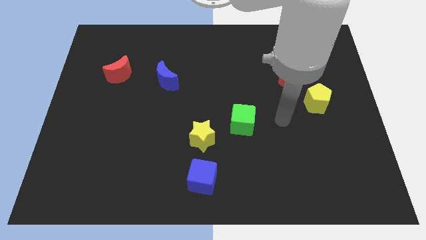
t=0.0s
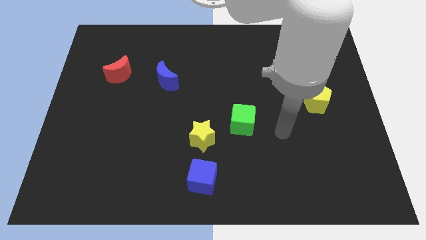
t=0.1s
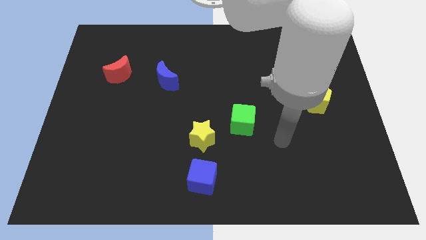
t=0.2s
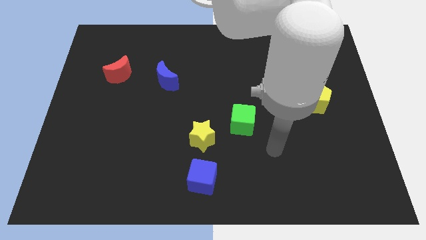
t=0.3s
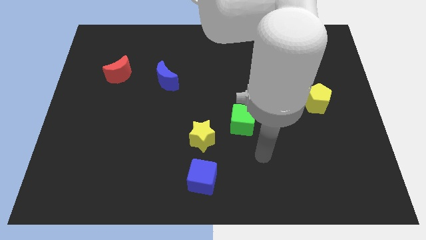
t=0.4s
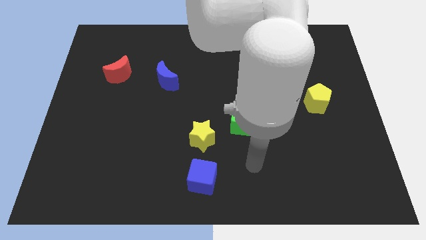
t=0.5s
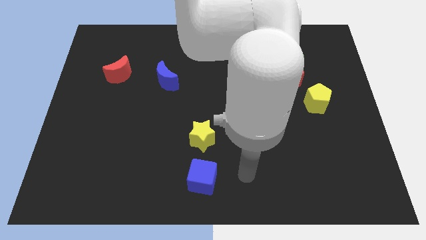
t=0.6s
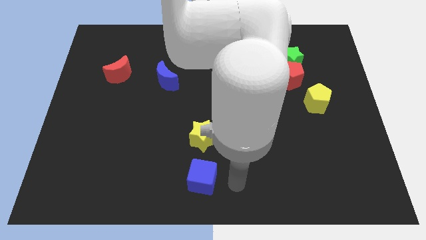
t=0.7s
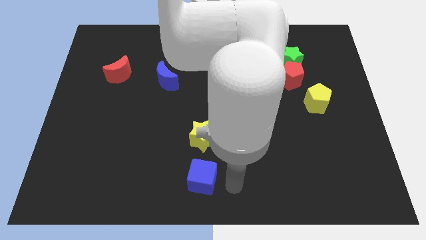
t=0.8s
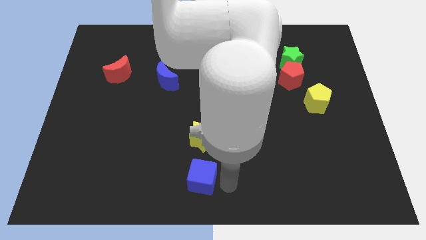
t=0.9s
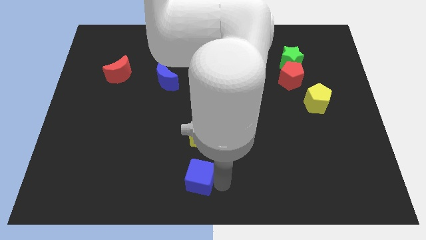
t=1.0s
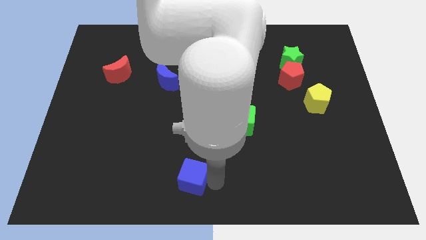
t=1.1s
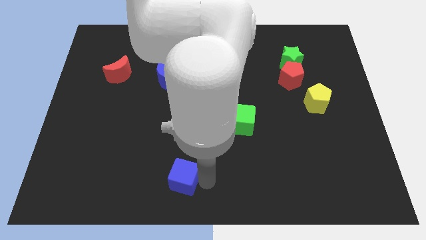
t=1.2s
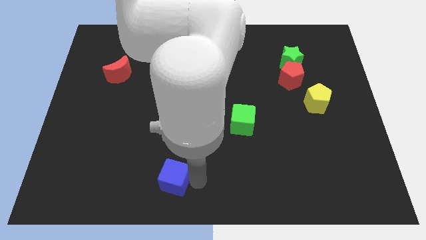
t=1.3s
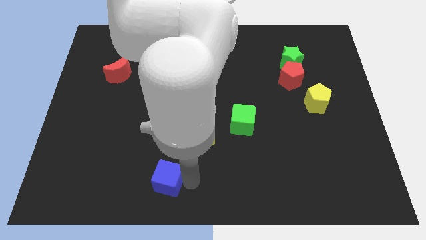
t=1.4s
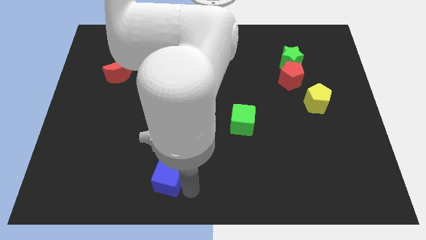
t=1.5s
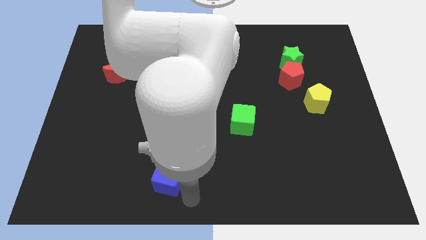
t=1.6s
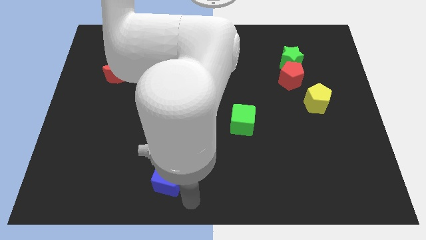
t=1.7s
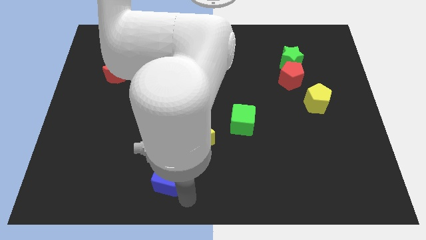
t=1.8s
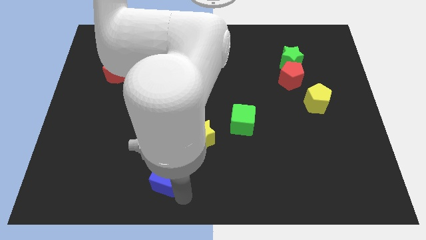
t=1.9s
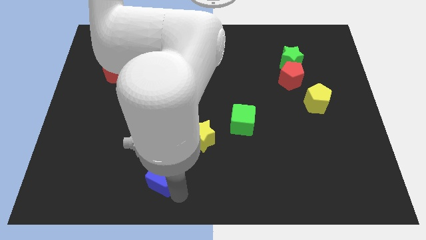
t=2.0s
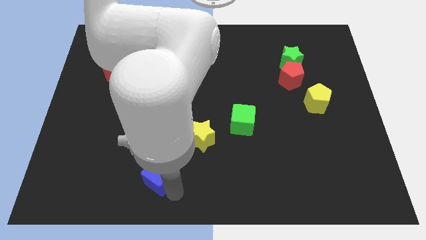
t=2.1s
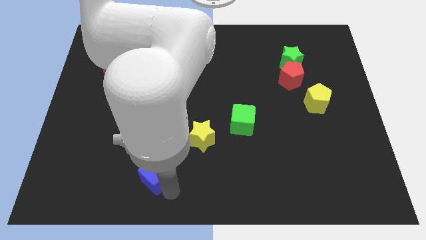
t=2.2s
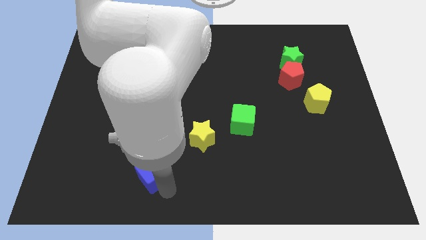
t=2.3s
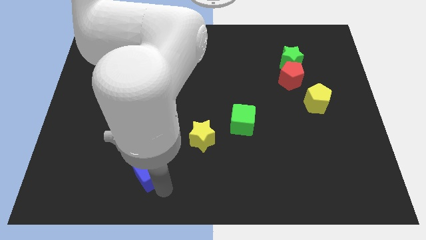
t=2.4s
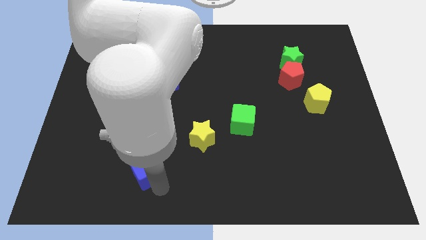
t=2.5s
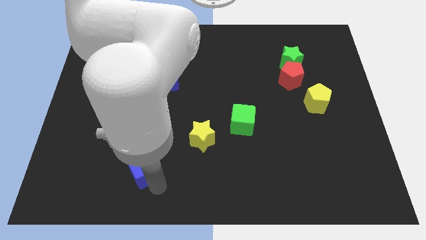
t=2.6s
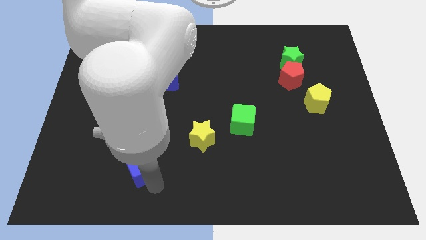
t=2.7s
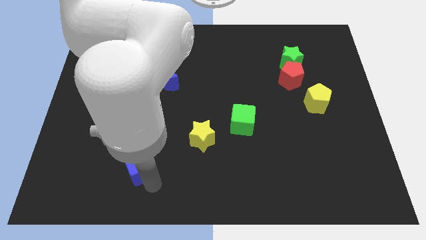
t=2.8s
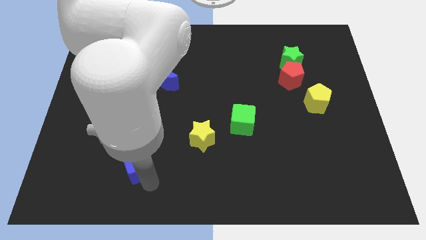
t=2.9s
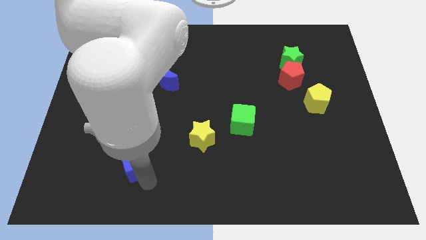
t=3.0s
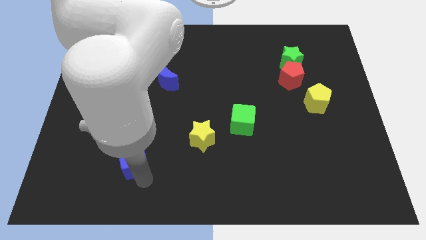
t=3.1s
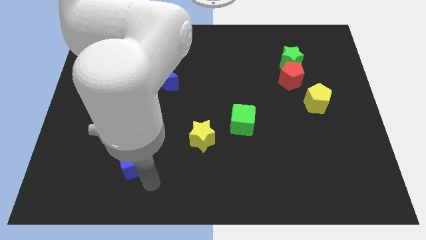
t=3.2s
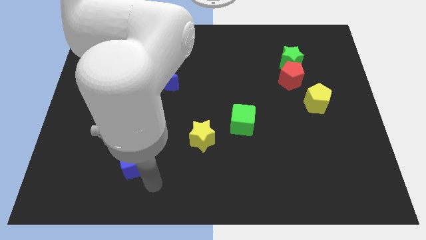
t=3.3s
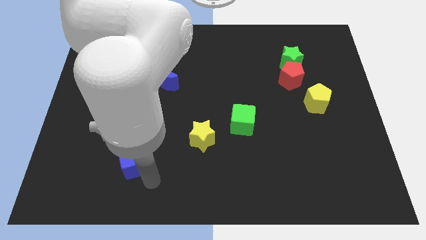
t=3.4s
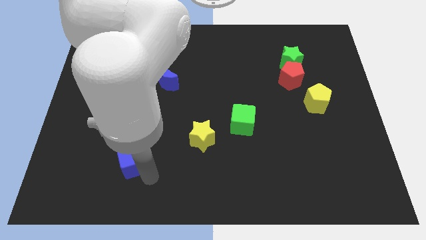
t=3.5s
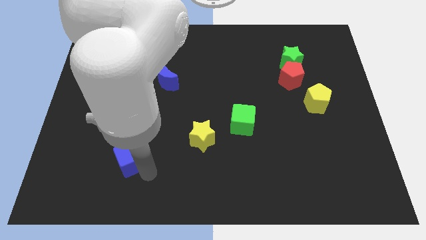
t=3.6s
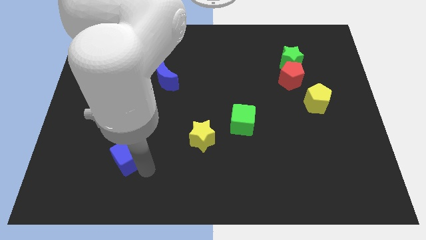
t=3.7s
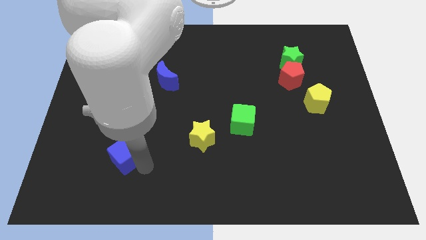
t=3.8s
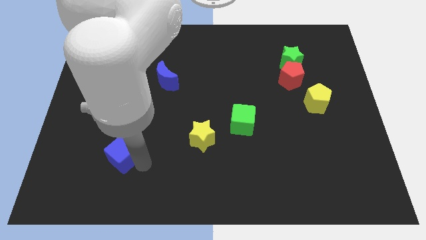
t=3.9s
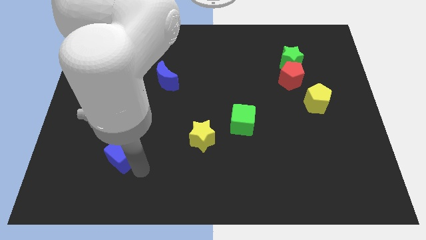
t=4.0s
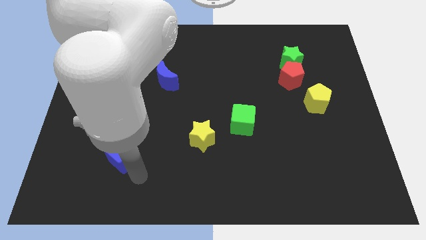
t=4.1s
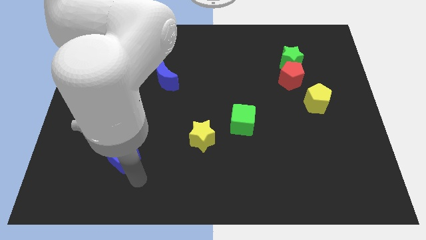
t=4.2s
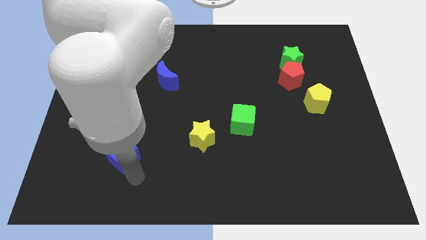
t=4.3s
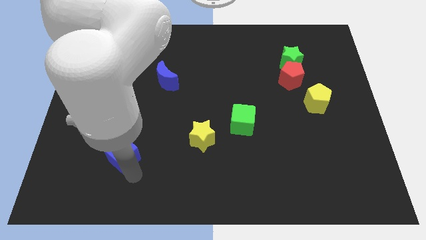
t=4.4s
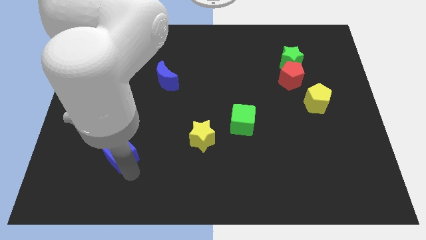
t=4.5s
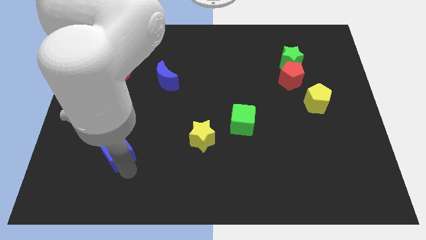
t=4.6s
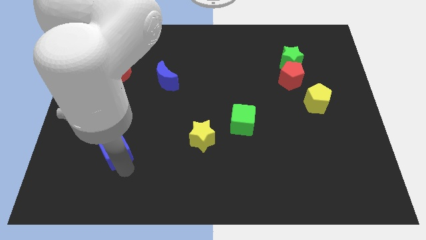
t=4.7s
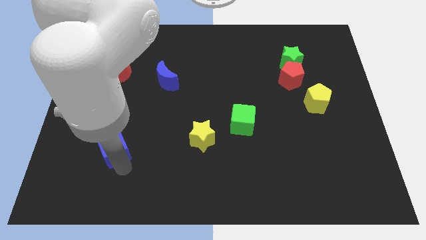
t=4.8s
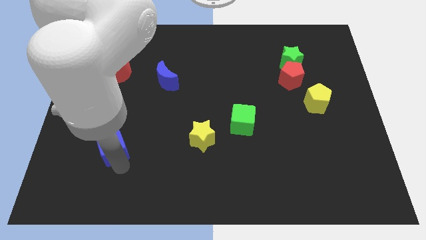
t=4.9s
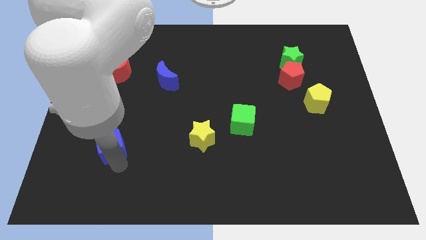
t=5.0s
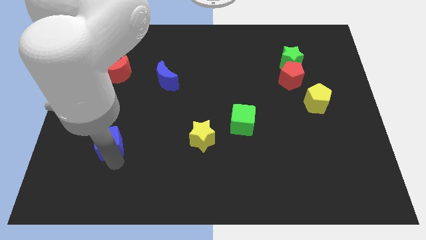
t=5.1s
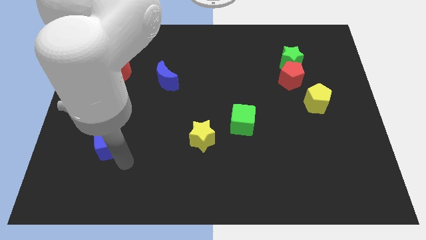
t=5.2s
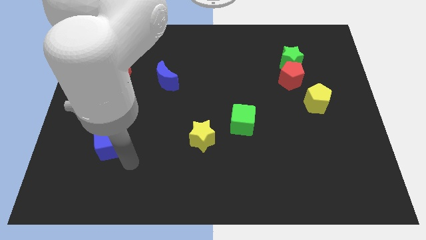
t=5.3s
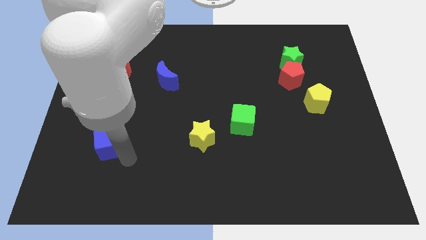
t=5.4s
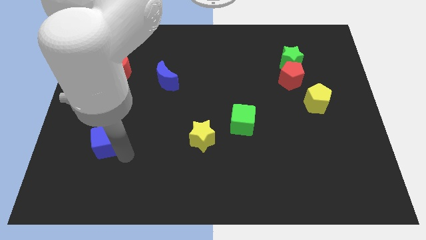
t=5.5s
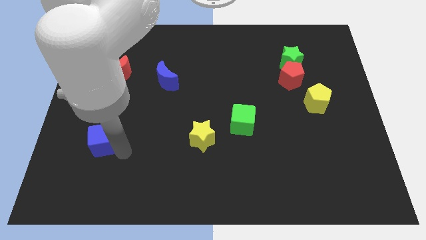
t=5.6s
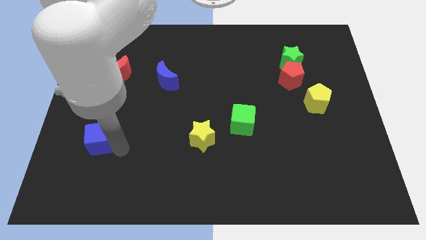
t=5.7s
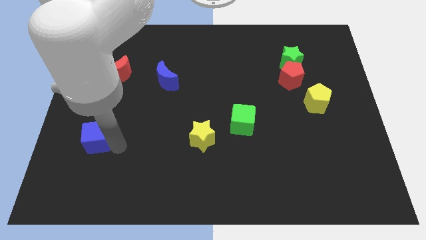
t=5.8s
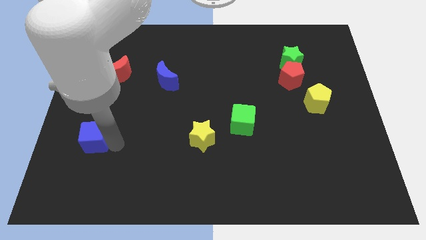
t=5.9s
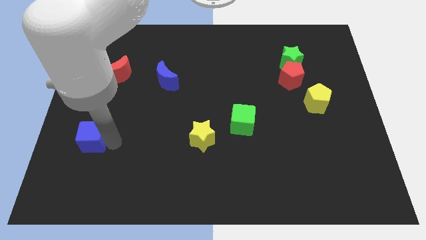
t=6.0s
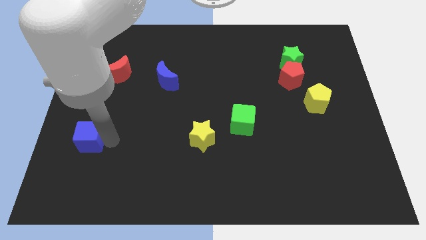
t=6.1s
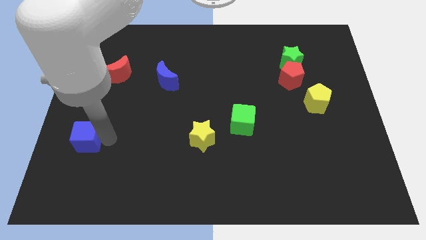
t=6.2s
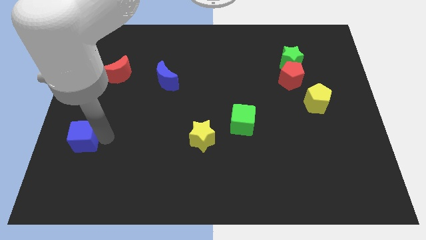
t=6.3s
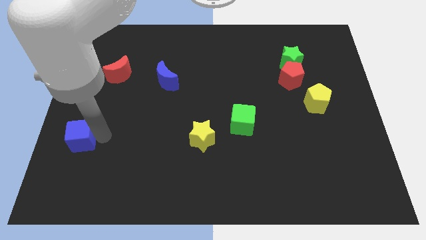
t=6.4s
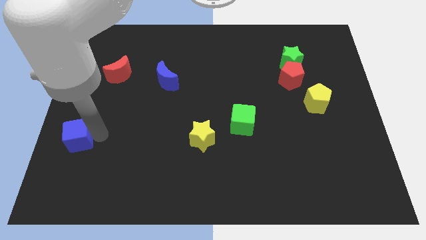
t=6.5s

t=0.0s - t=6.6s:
push the blue cube to the center left
